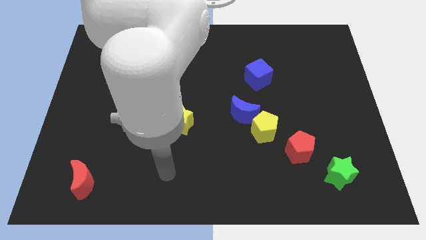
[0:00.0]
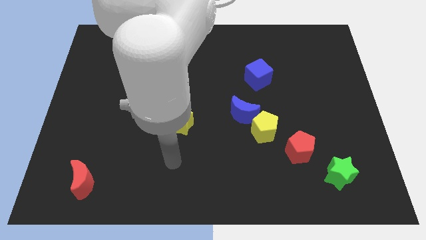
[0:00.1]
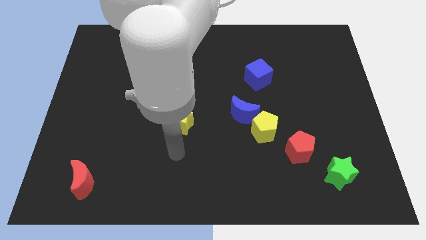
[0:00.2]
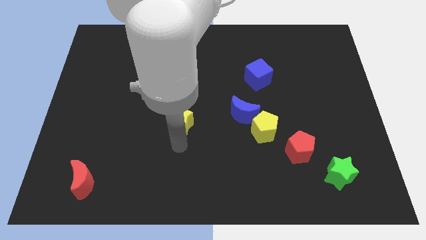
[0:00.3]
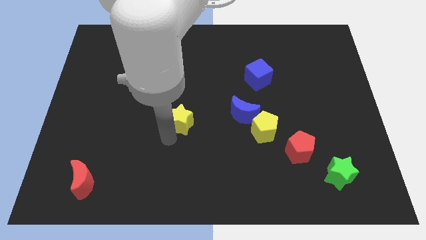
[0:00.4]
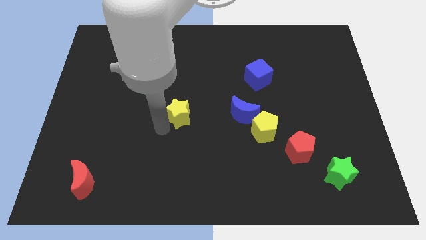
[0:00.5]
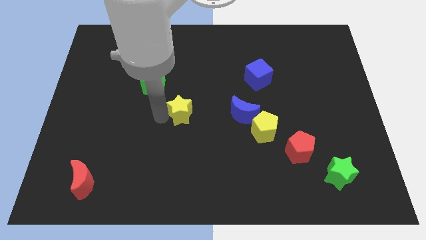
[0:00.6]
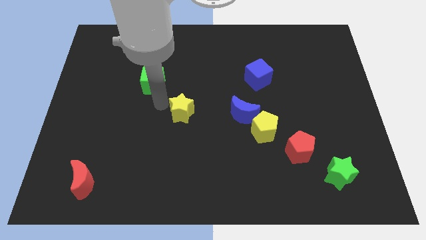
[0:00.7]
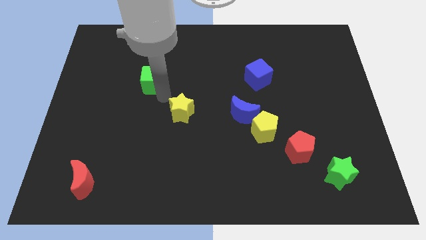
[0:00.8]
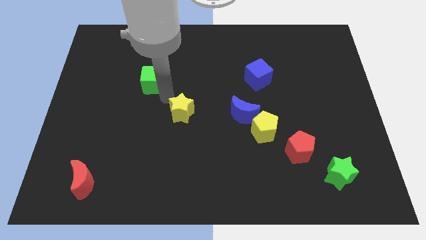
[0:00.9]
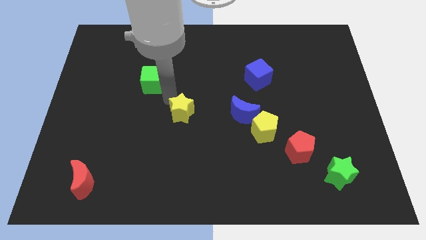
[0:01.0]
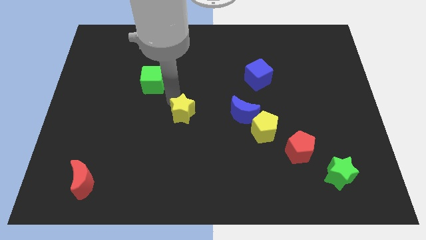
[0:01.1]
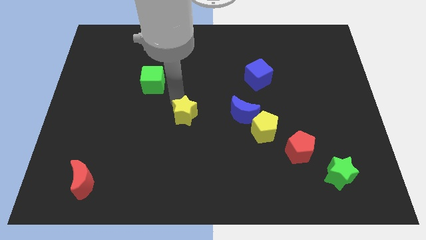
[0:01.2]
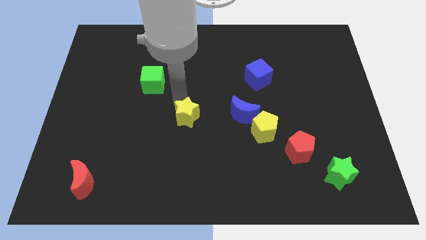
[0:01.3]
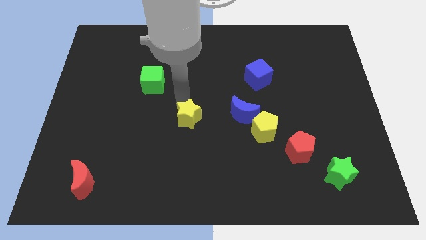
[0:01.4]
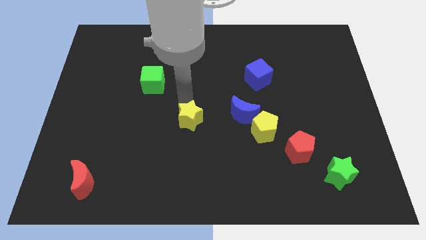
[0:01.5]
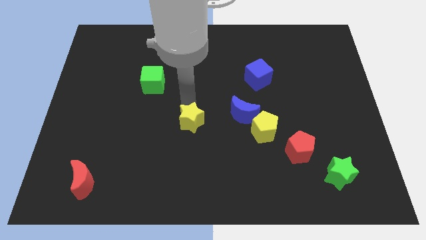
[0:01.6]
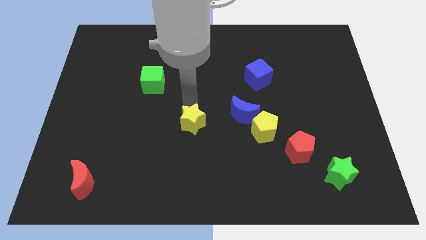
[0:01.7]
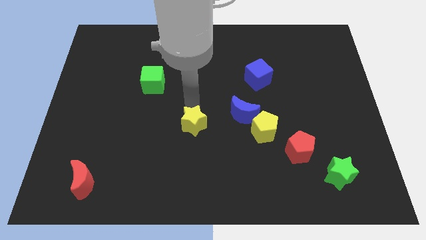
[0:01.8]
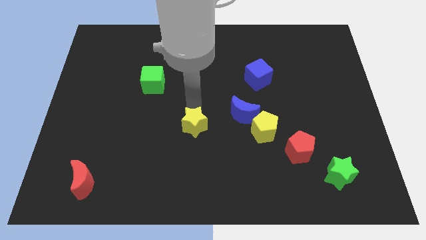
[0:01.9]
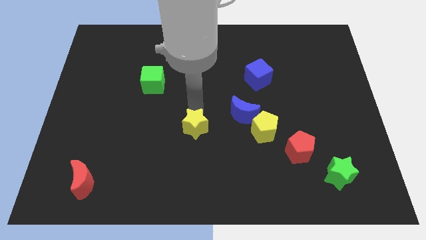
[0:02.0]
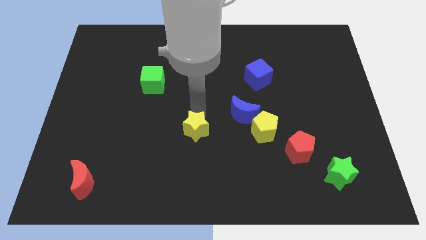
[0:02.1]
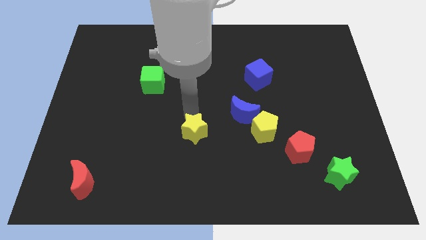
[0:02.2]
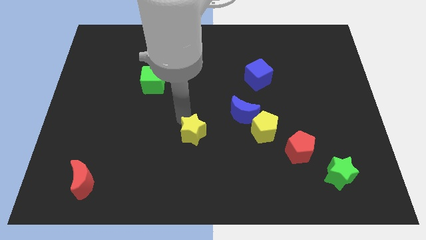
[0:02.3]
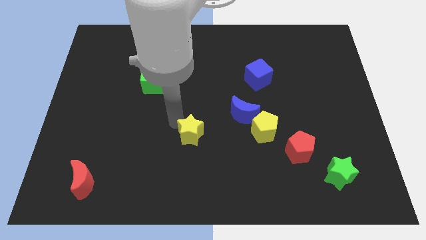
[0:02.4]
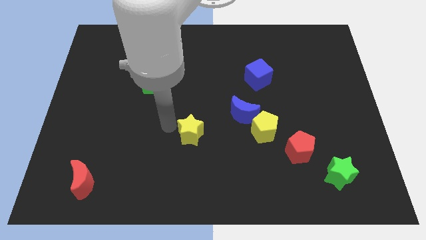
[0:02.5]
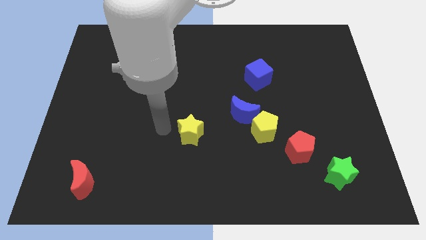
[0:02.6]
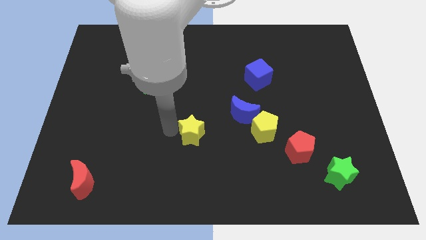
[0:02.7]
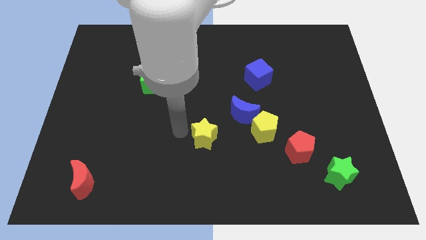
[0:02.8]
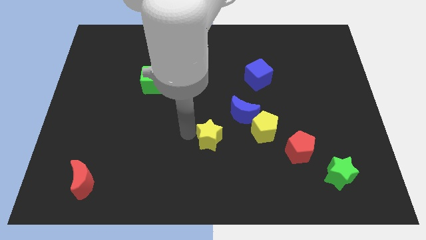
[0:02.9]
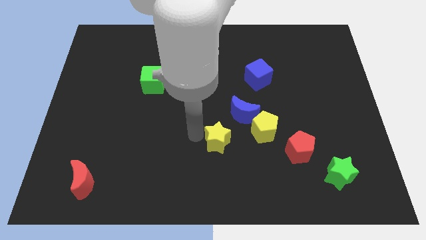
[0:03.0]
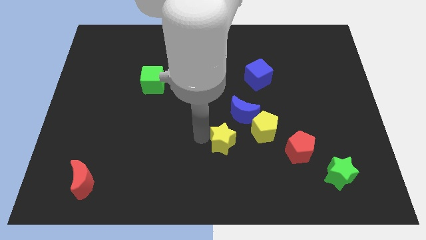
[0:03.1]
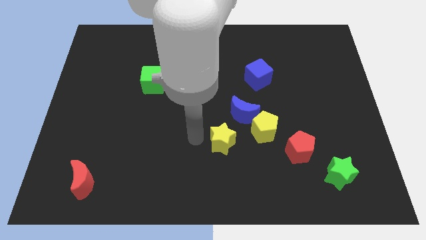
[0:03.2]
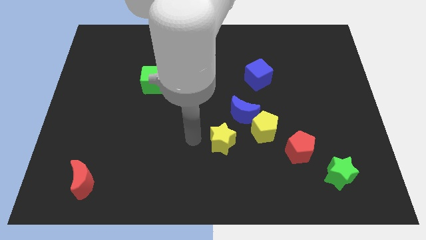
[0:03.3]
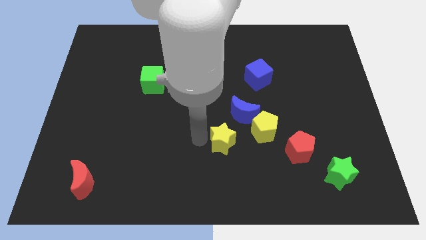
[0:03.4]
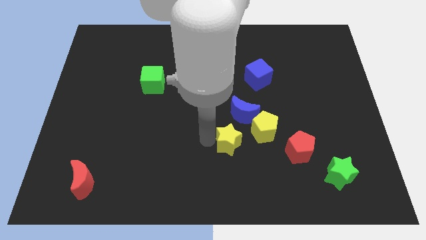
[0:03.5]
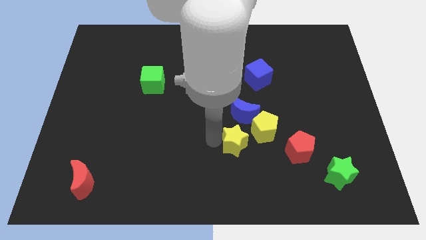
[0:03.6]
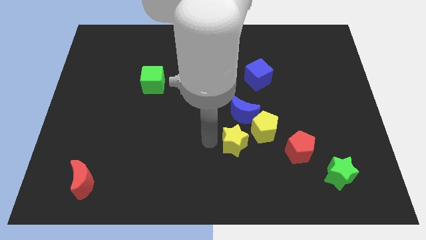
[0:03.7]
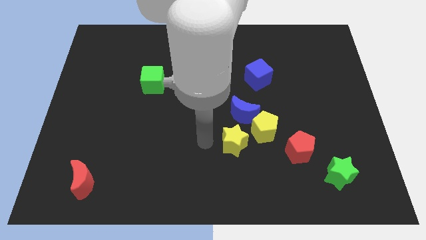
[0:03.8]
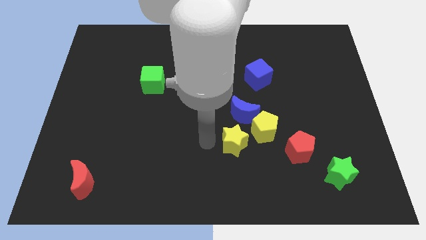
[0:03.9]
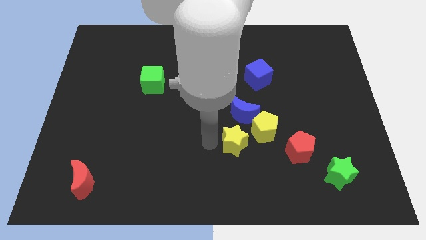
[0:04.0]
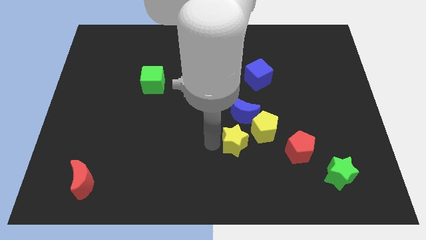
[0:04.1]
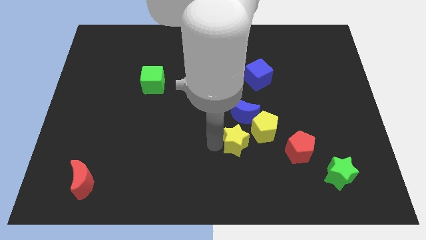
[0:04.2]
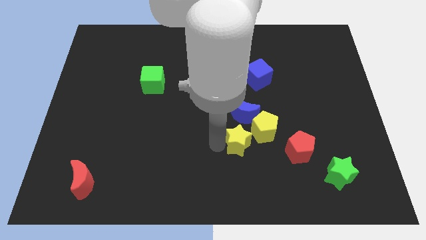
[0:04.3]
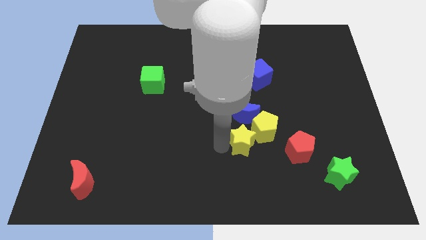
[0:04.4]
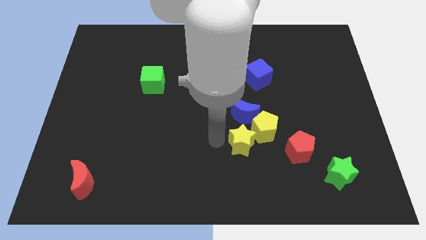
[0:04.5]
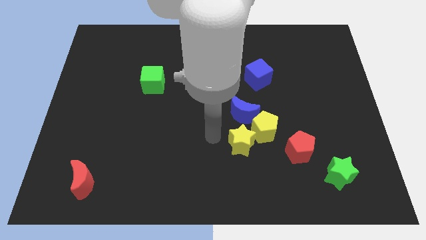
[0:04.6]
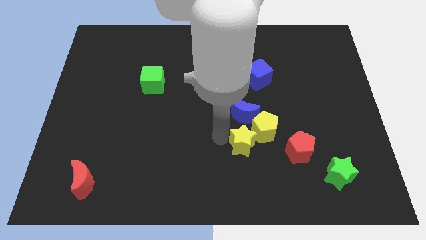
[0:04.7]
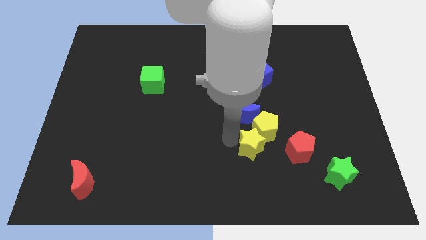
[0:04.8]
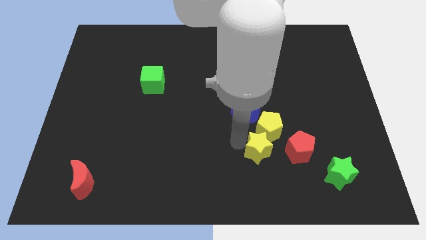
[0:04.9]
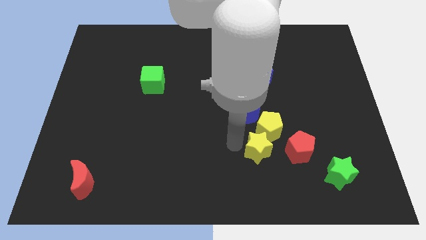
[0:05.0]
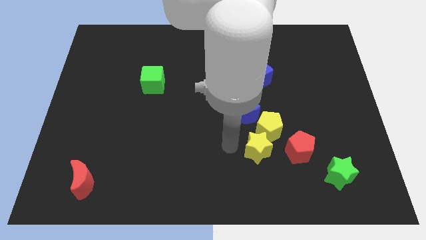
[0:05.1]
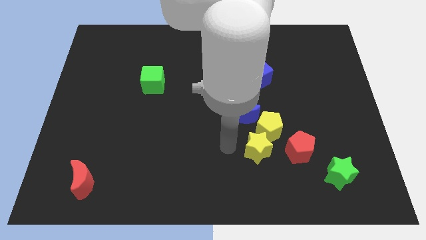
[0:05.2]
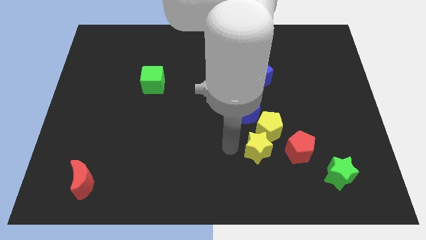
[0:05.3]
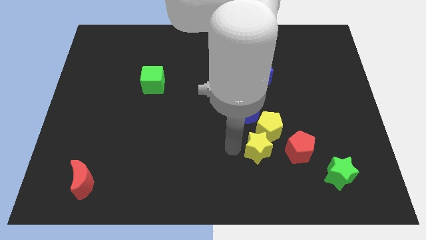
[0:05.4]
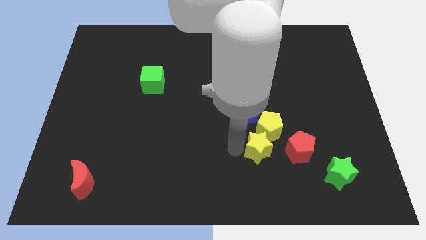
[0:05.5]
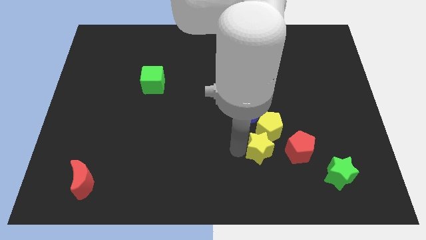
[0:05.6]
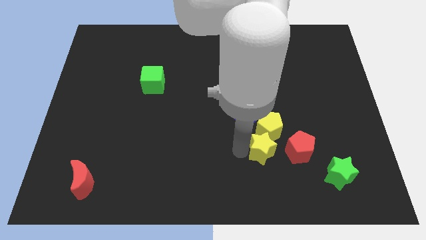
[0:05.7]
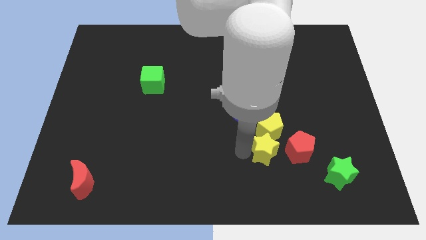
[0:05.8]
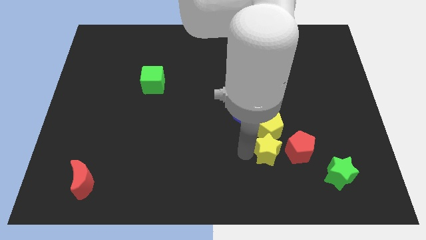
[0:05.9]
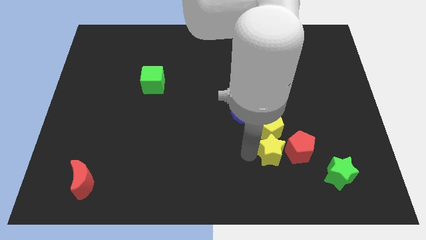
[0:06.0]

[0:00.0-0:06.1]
put the yellow star to the red pentagon
